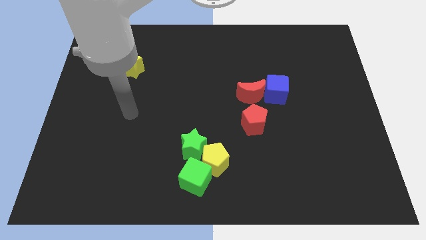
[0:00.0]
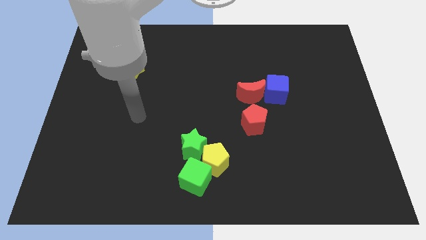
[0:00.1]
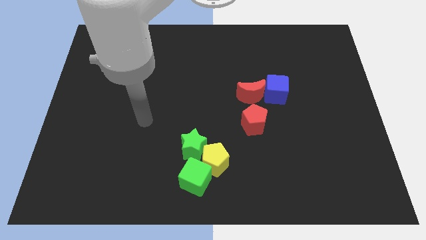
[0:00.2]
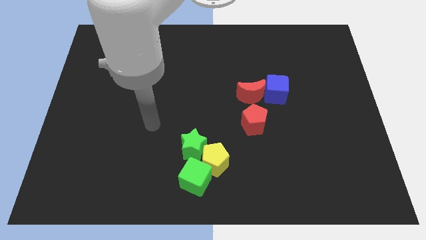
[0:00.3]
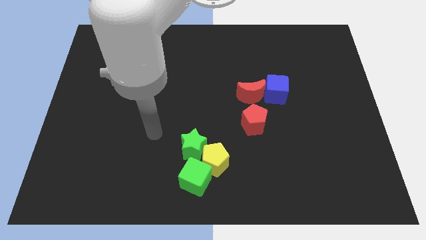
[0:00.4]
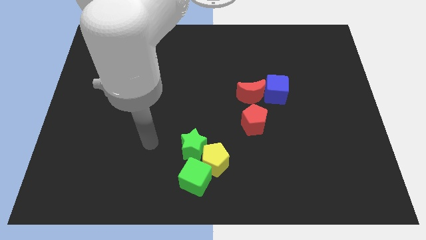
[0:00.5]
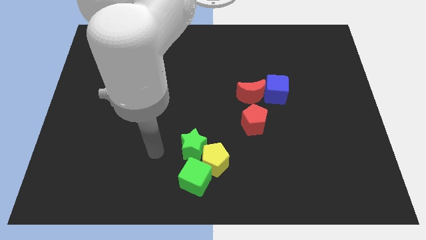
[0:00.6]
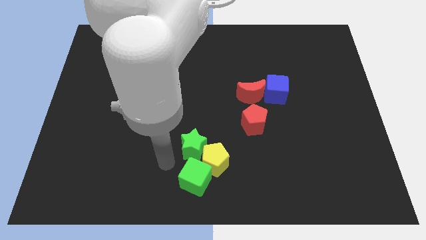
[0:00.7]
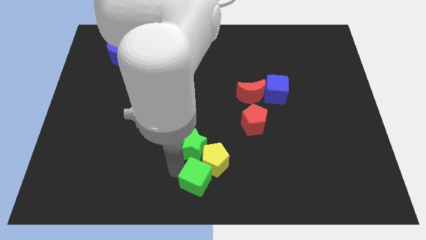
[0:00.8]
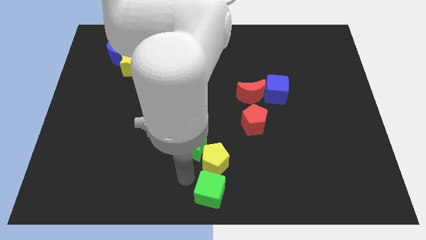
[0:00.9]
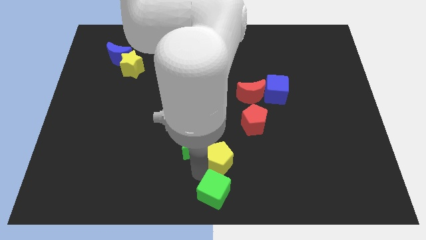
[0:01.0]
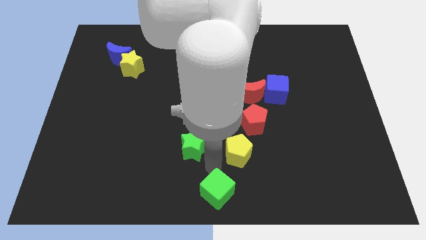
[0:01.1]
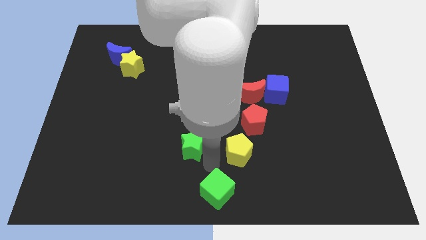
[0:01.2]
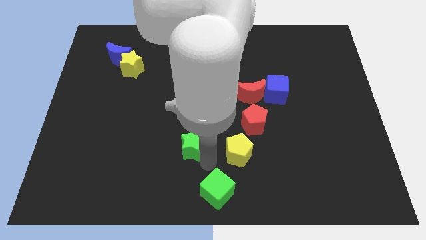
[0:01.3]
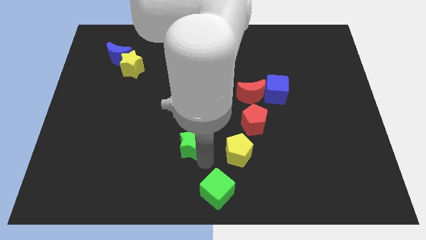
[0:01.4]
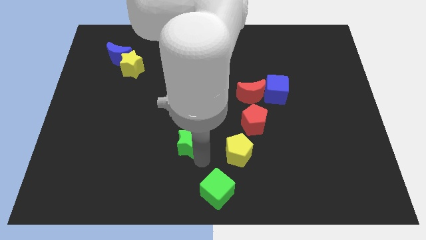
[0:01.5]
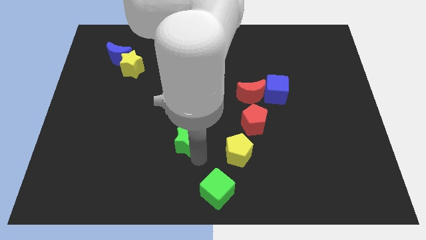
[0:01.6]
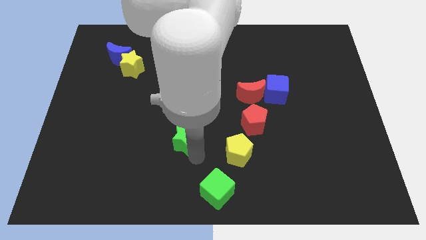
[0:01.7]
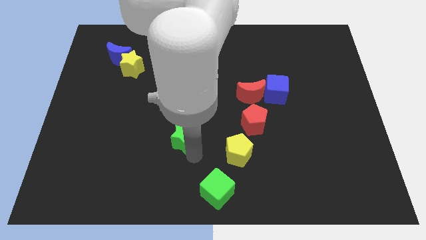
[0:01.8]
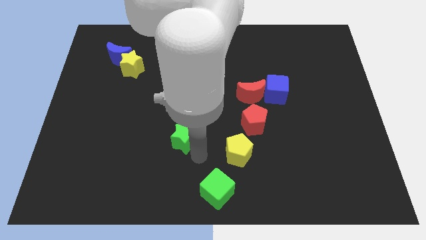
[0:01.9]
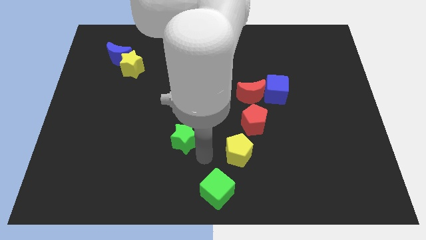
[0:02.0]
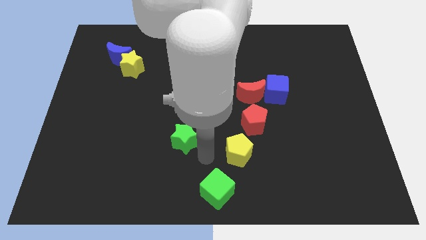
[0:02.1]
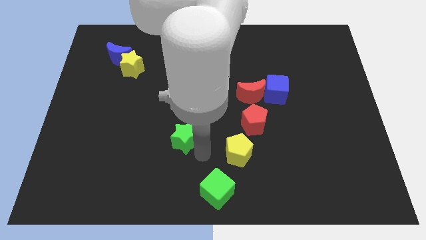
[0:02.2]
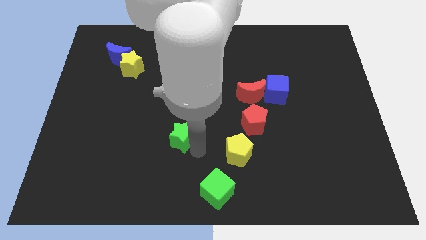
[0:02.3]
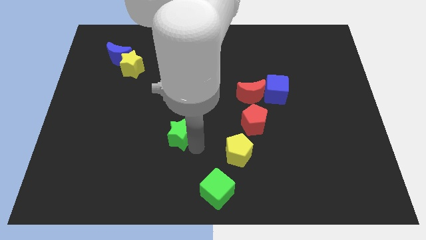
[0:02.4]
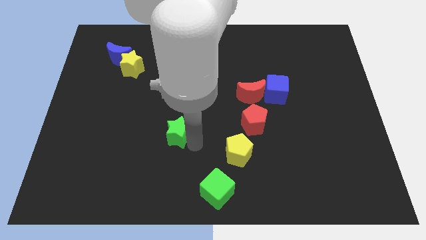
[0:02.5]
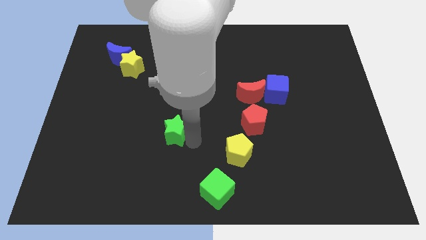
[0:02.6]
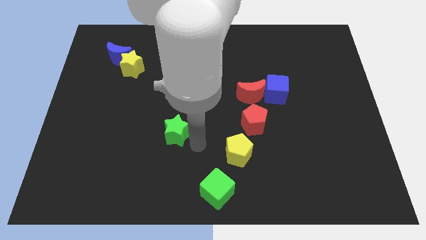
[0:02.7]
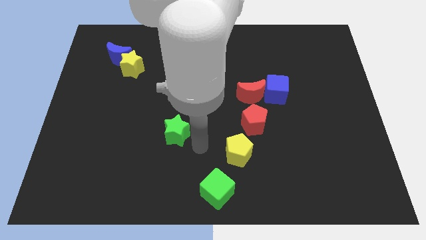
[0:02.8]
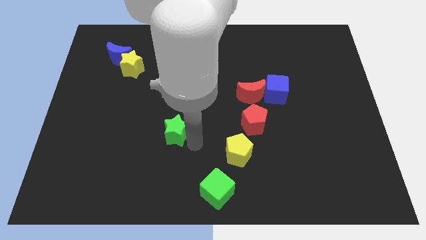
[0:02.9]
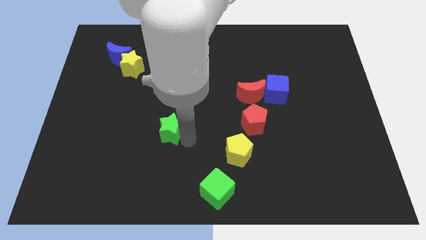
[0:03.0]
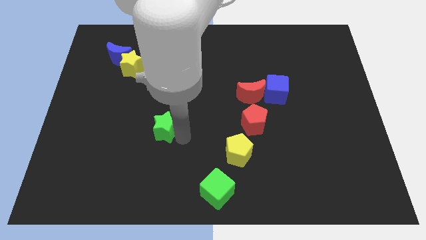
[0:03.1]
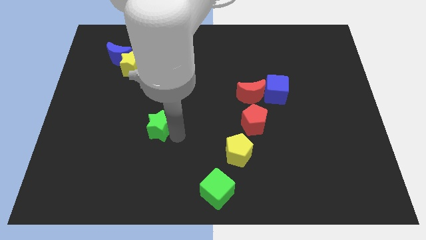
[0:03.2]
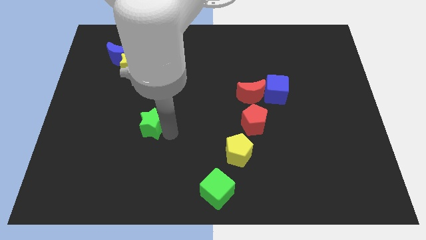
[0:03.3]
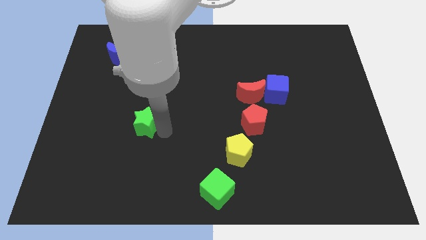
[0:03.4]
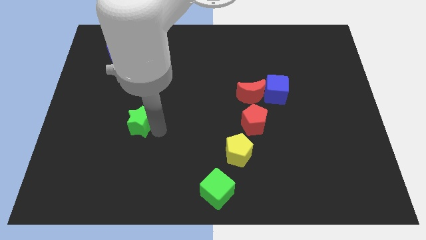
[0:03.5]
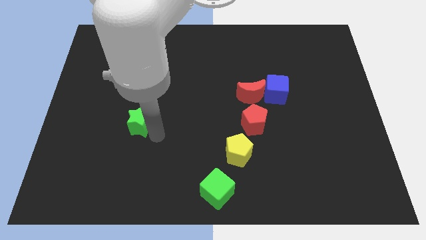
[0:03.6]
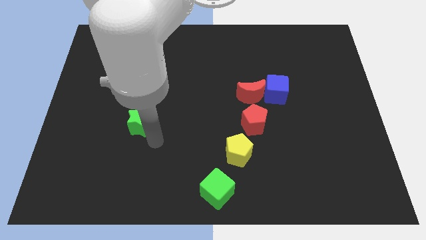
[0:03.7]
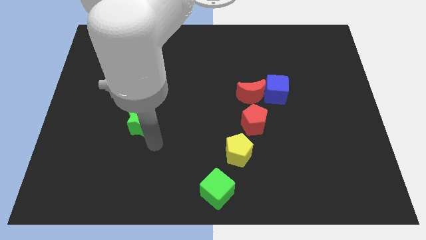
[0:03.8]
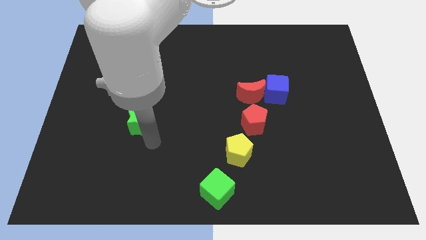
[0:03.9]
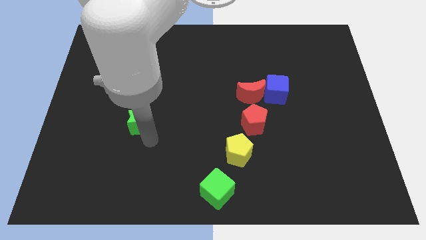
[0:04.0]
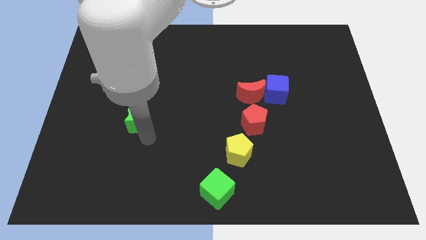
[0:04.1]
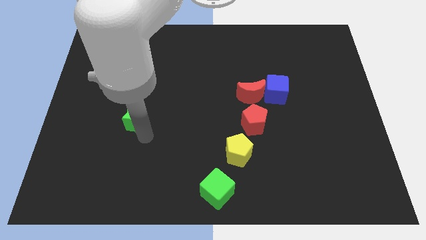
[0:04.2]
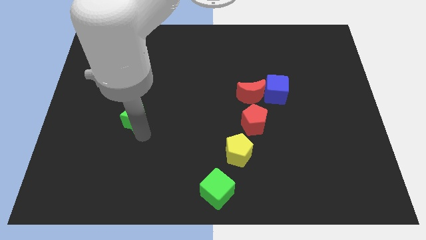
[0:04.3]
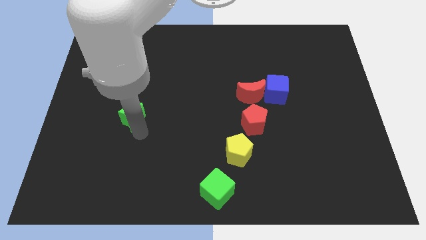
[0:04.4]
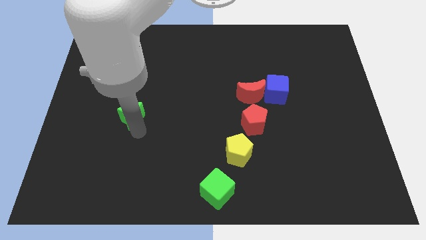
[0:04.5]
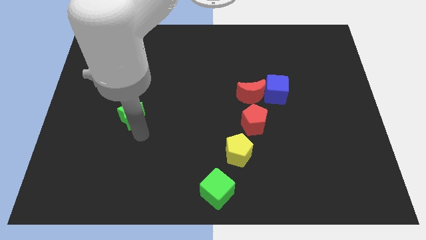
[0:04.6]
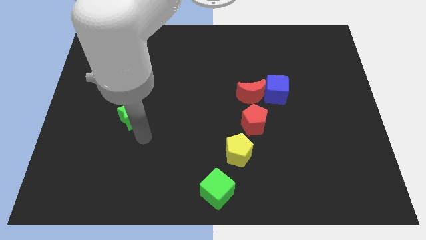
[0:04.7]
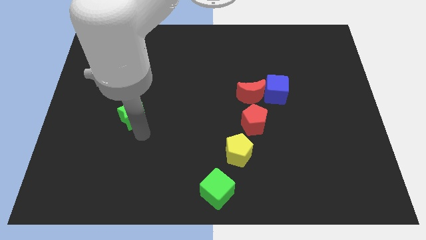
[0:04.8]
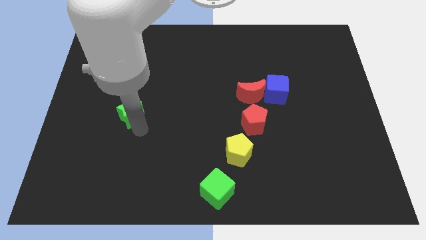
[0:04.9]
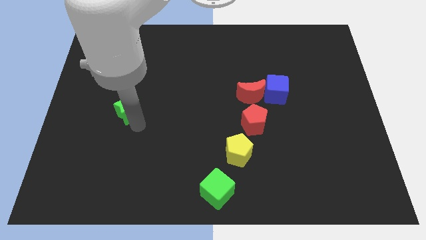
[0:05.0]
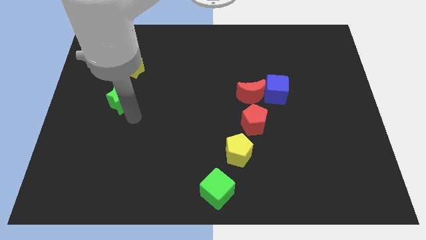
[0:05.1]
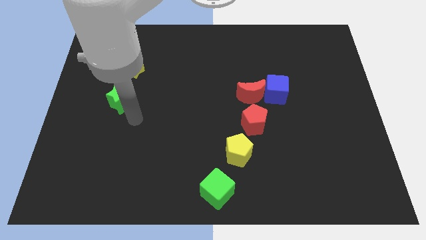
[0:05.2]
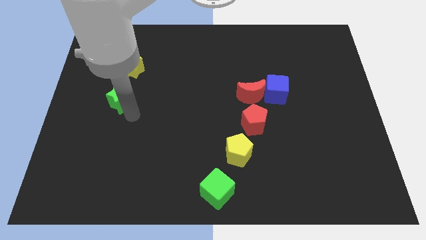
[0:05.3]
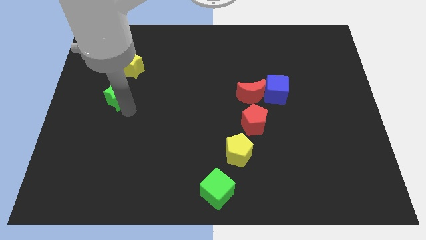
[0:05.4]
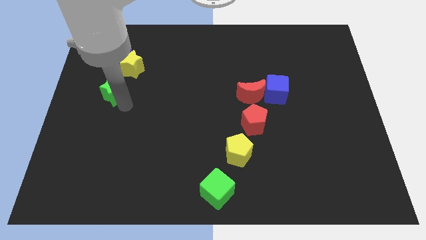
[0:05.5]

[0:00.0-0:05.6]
slide the green star diagonally down and to the left of the yellow star

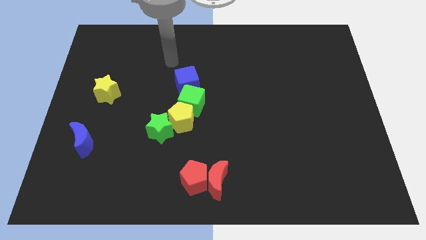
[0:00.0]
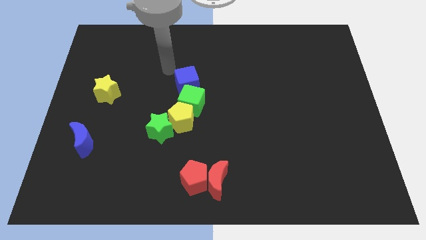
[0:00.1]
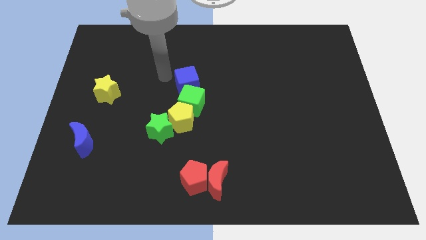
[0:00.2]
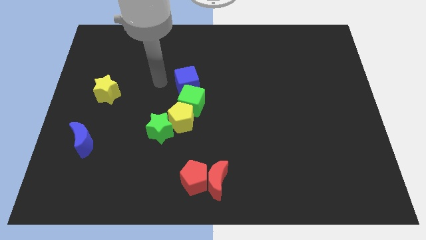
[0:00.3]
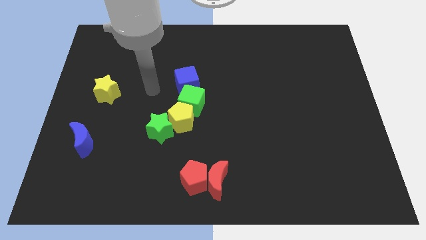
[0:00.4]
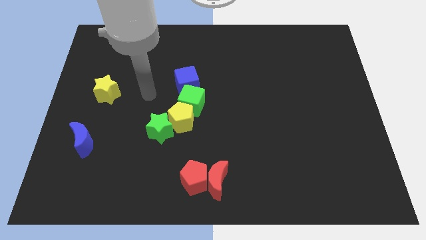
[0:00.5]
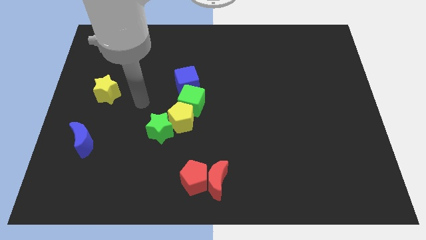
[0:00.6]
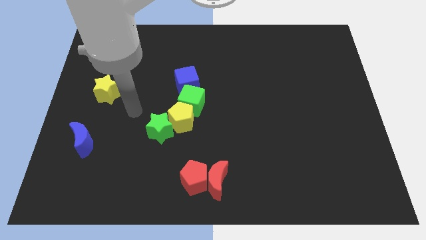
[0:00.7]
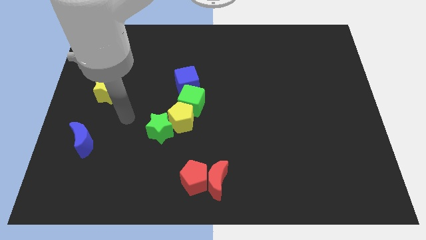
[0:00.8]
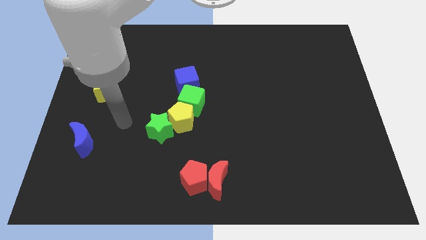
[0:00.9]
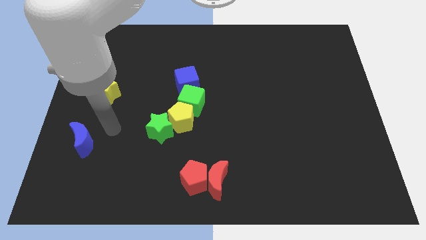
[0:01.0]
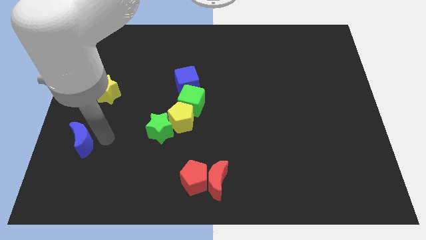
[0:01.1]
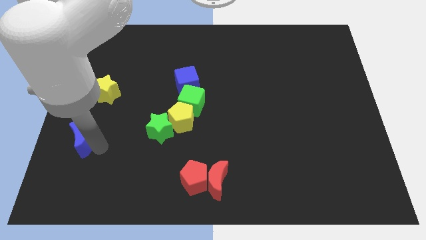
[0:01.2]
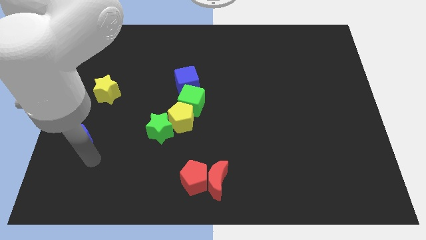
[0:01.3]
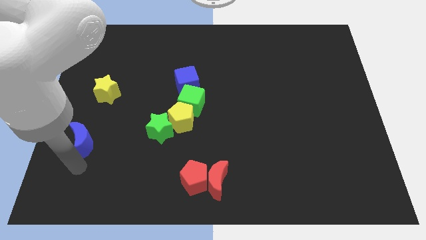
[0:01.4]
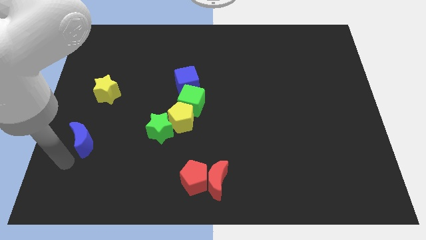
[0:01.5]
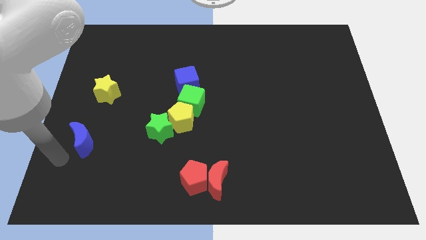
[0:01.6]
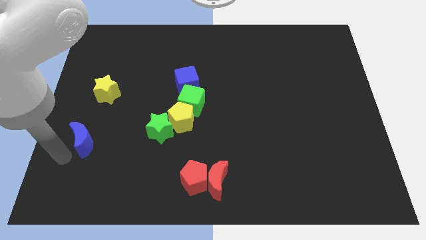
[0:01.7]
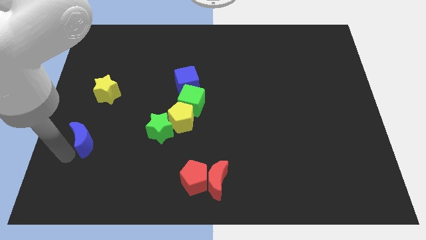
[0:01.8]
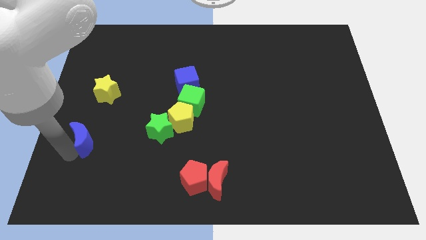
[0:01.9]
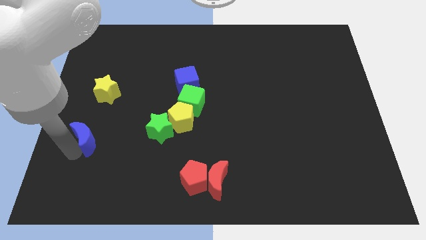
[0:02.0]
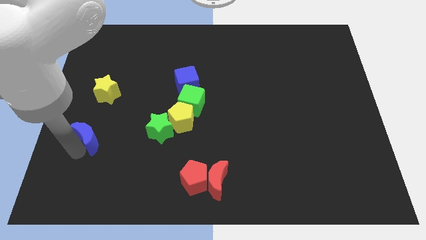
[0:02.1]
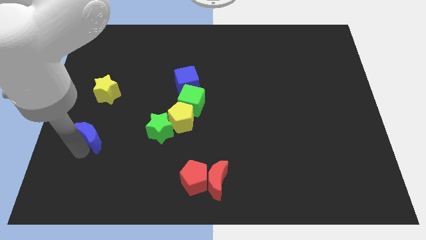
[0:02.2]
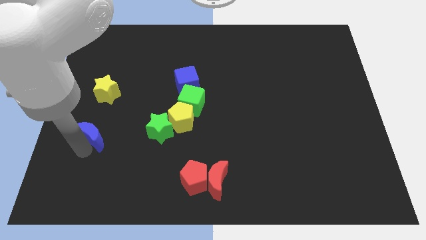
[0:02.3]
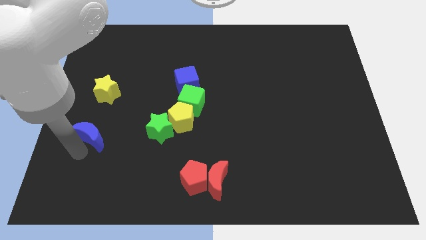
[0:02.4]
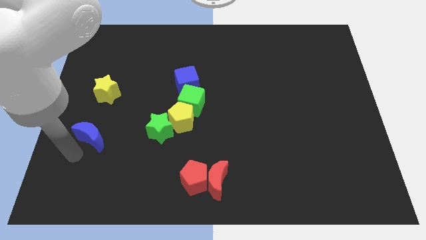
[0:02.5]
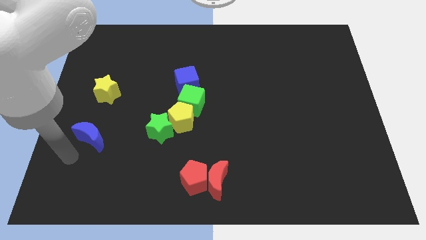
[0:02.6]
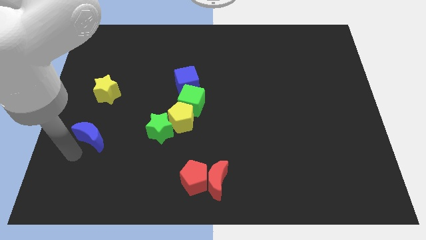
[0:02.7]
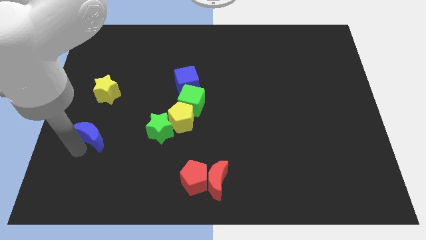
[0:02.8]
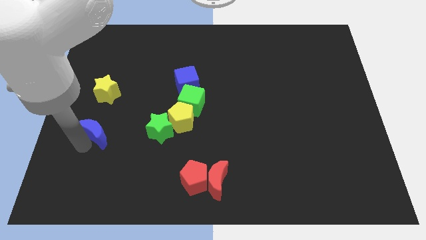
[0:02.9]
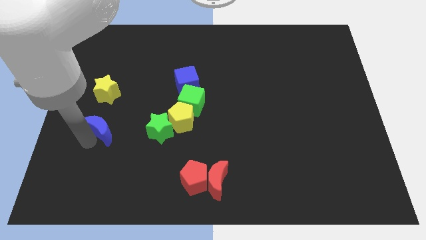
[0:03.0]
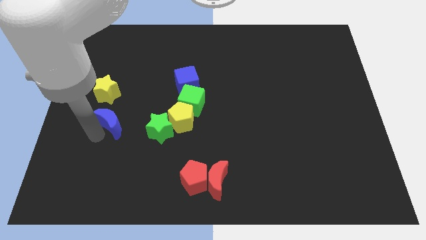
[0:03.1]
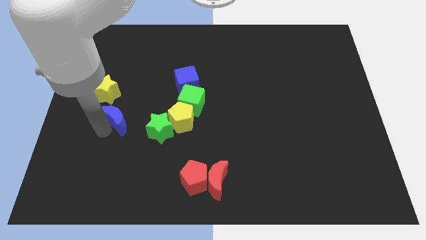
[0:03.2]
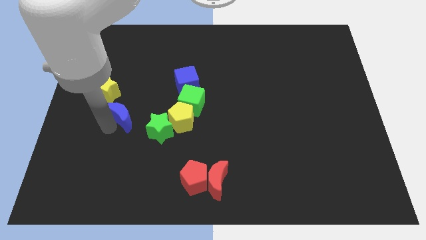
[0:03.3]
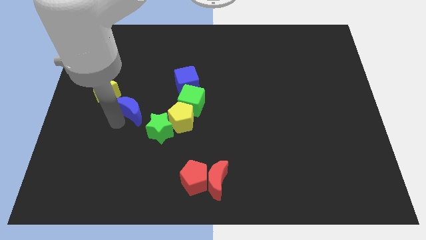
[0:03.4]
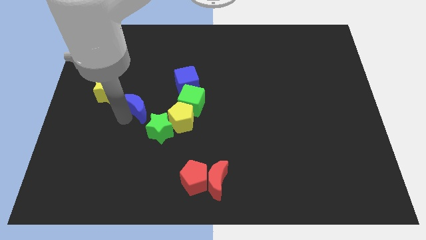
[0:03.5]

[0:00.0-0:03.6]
push the blue moon to the right of the yellow star
